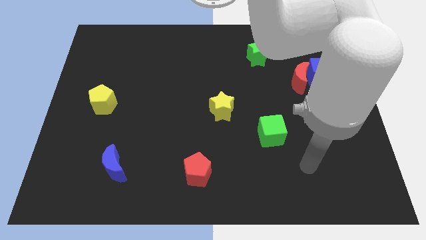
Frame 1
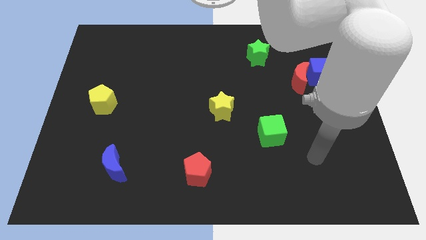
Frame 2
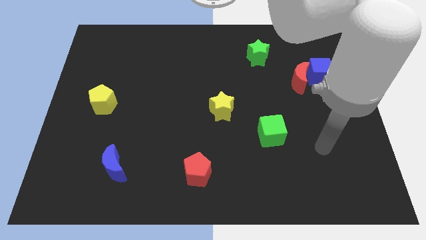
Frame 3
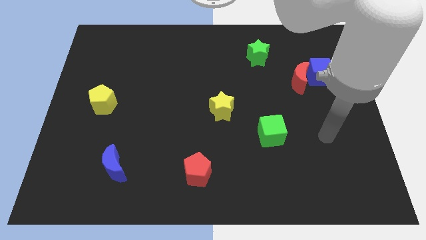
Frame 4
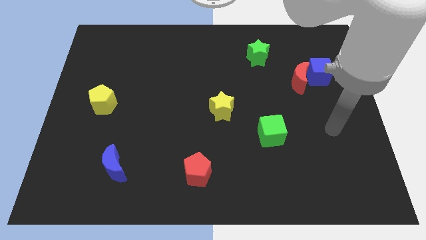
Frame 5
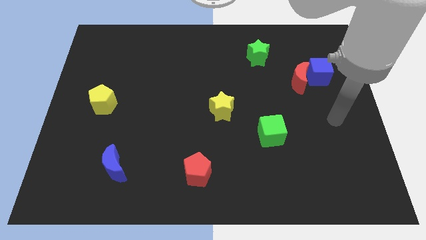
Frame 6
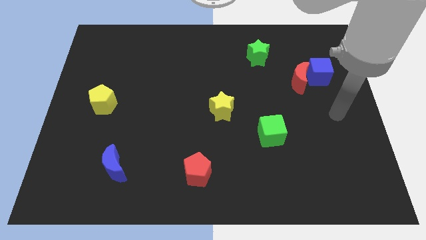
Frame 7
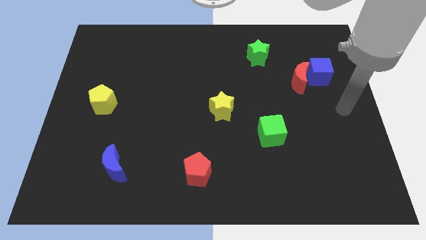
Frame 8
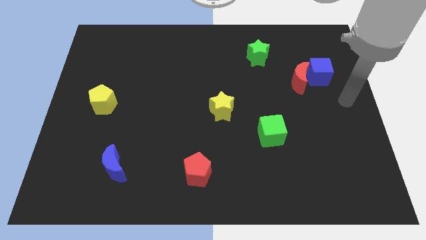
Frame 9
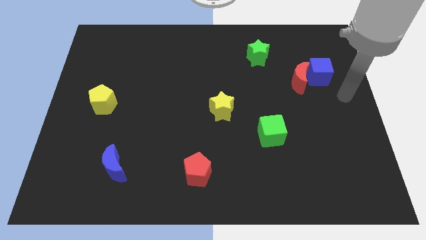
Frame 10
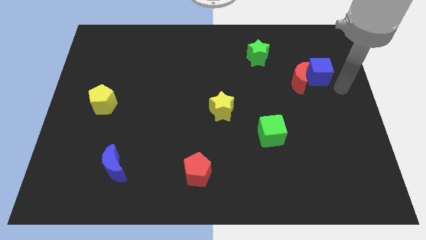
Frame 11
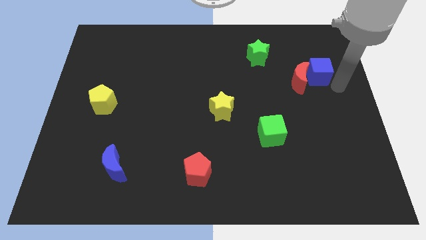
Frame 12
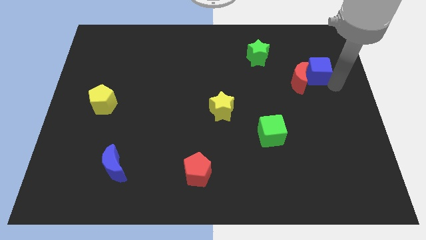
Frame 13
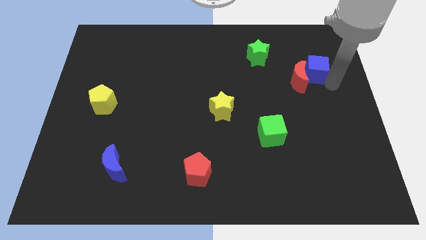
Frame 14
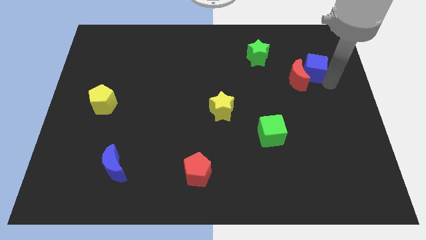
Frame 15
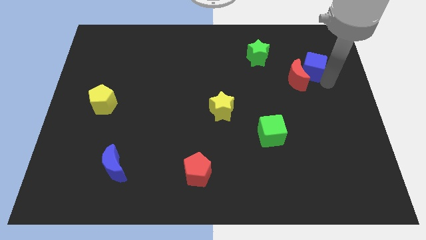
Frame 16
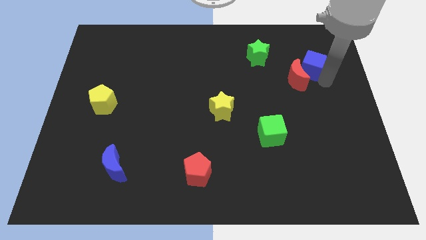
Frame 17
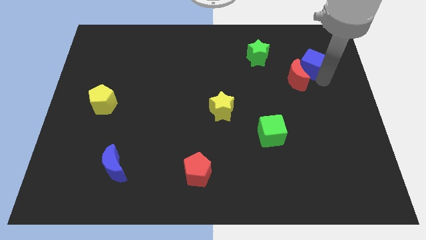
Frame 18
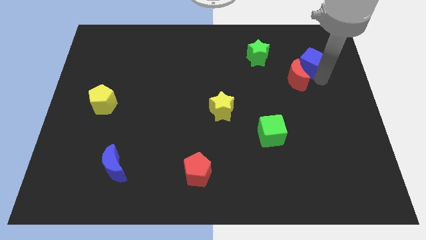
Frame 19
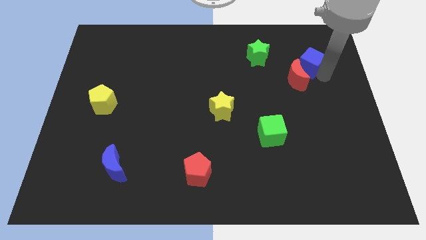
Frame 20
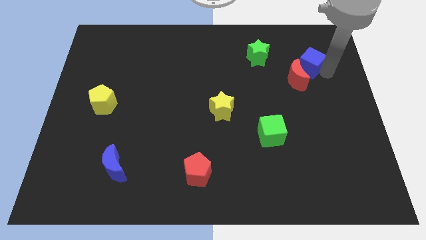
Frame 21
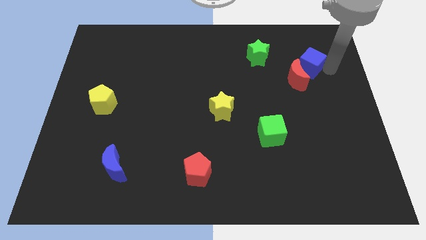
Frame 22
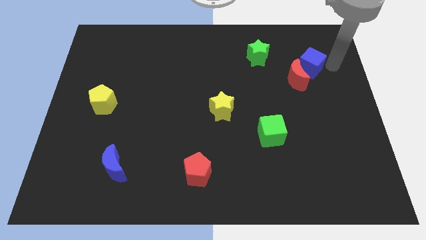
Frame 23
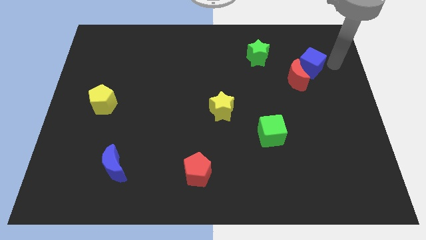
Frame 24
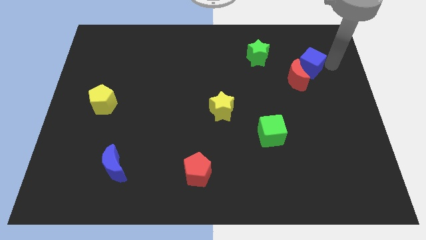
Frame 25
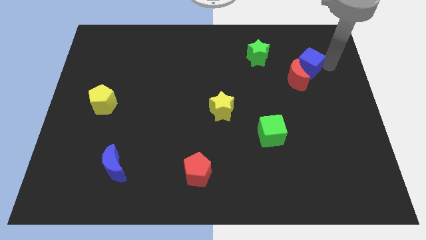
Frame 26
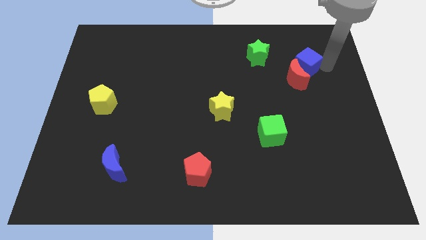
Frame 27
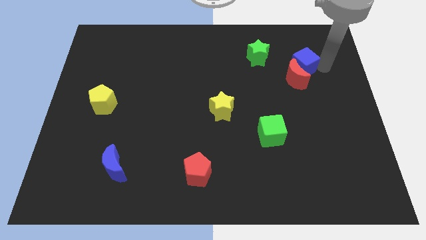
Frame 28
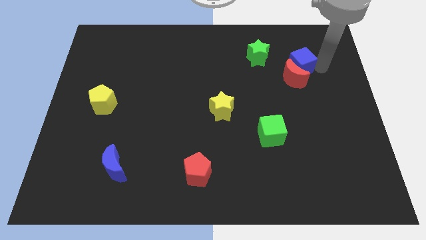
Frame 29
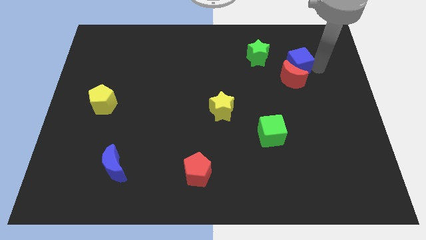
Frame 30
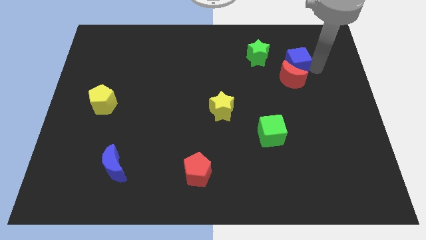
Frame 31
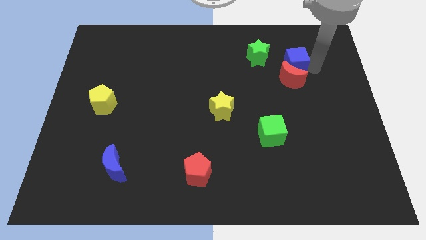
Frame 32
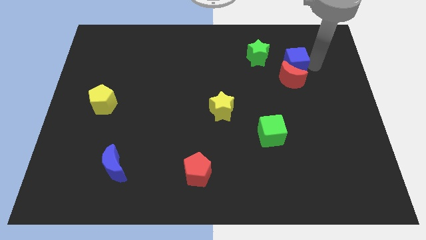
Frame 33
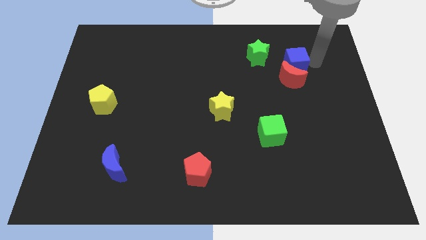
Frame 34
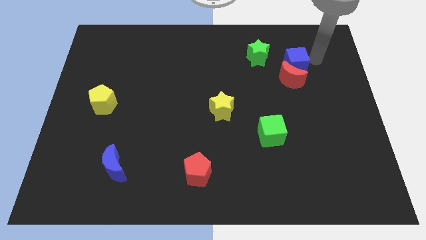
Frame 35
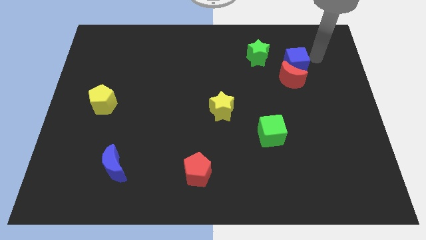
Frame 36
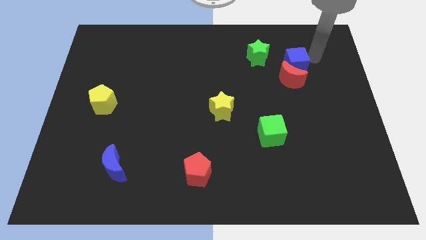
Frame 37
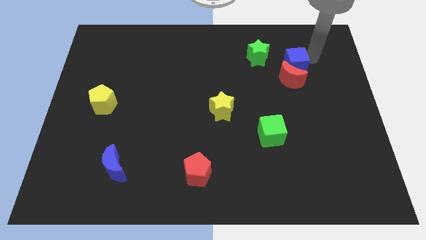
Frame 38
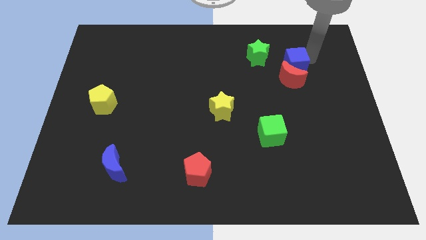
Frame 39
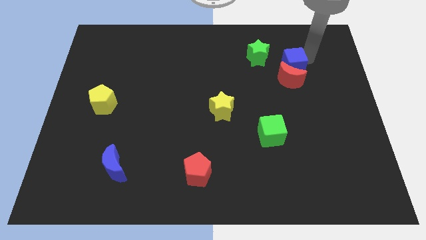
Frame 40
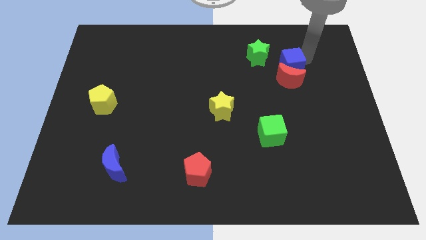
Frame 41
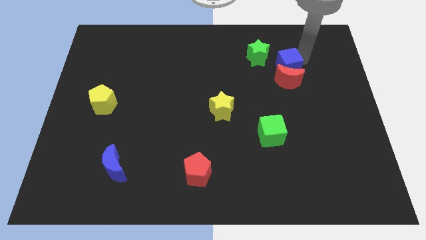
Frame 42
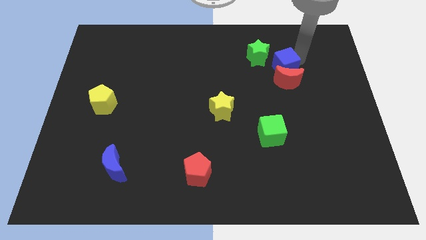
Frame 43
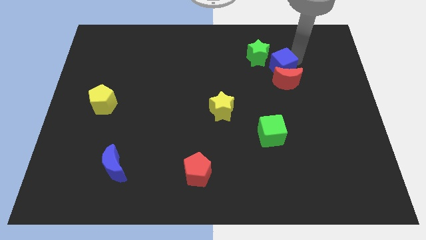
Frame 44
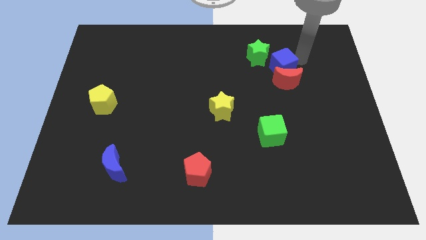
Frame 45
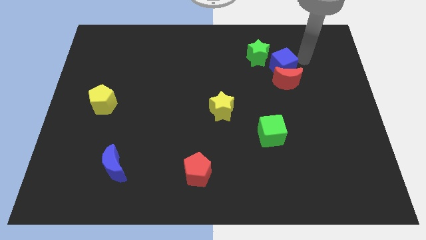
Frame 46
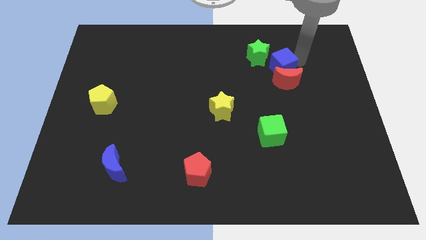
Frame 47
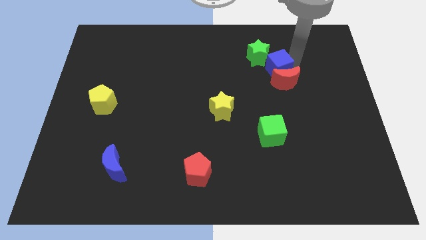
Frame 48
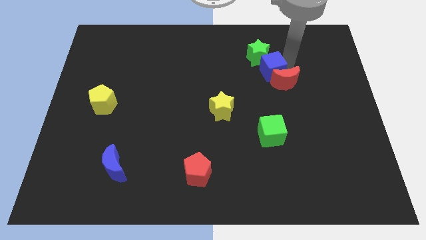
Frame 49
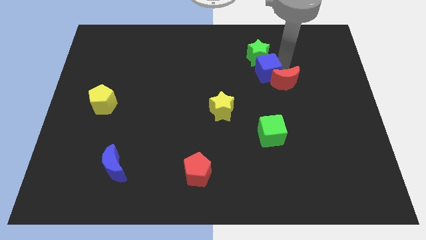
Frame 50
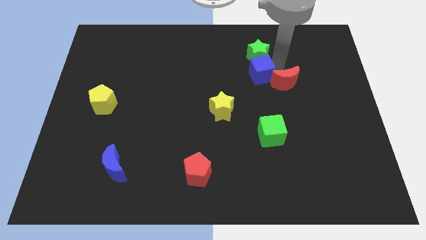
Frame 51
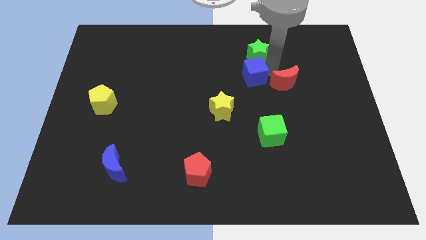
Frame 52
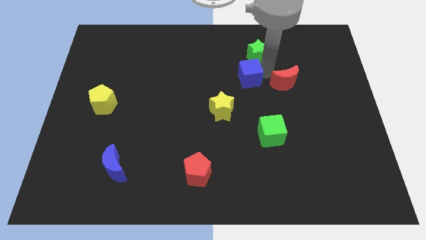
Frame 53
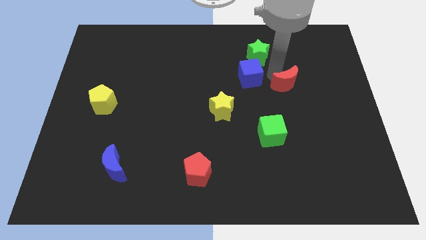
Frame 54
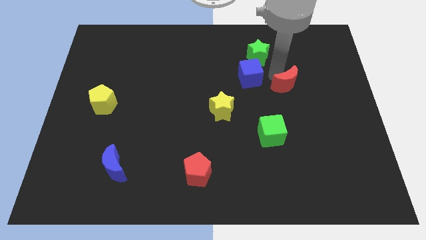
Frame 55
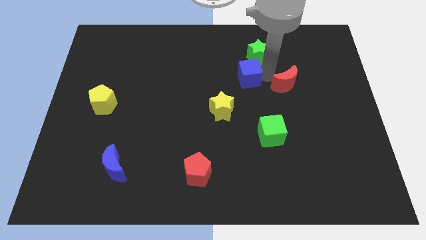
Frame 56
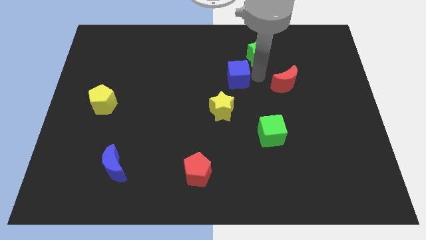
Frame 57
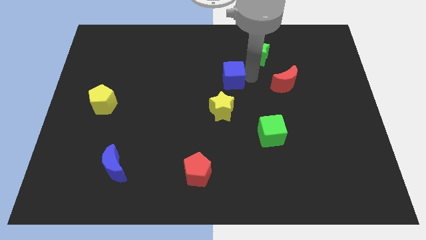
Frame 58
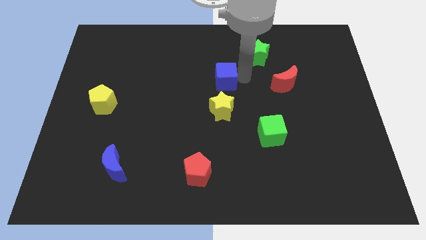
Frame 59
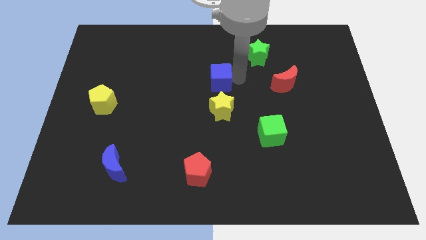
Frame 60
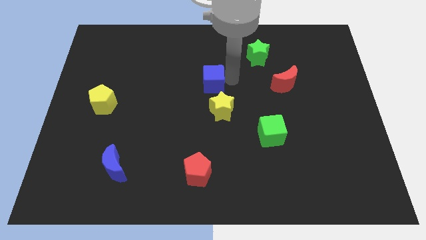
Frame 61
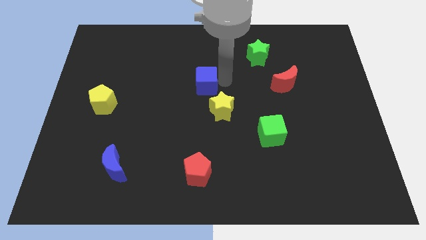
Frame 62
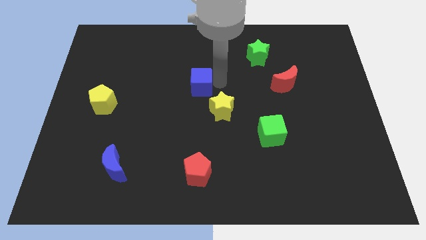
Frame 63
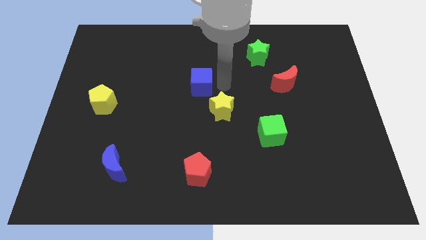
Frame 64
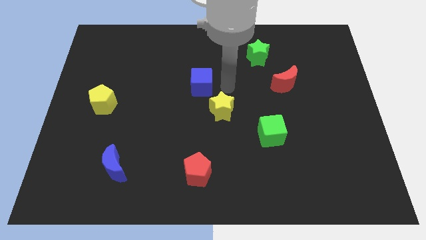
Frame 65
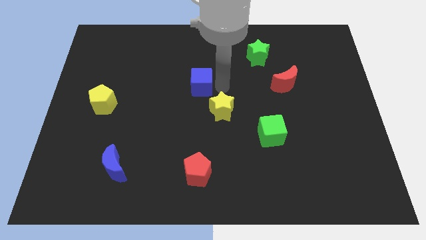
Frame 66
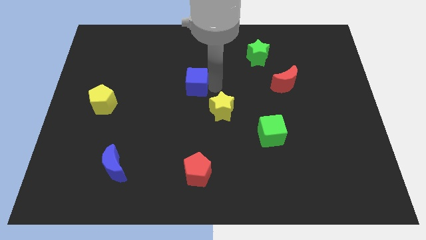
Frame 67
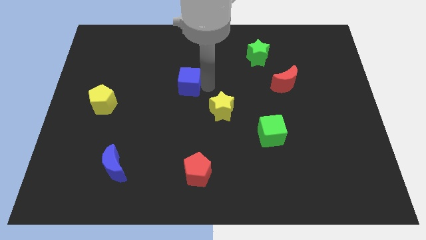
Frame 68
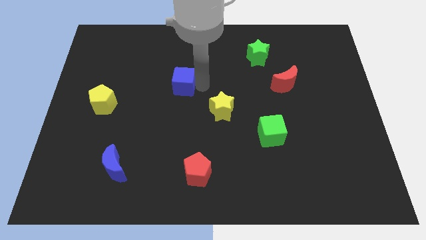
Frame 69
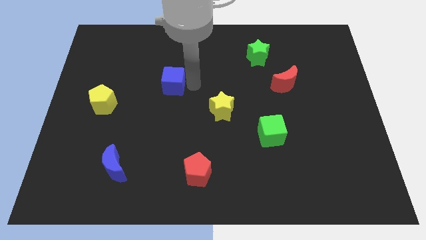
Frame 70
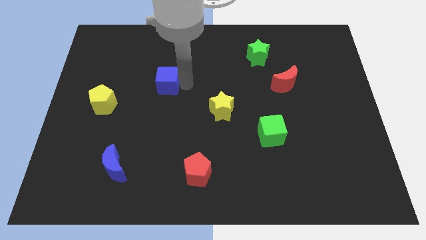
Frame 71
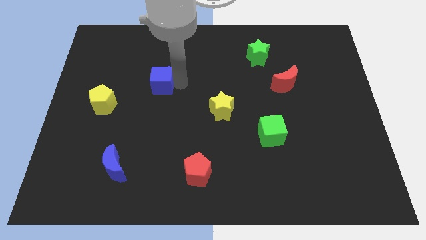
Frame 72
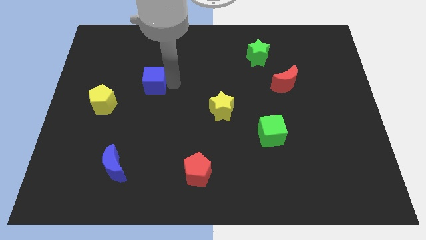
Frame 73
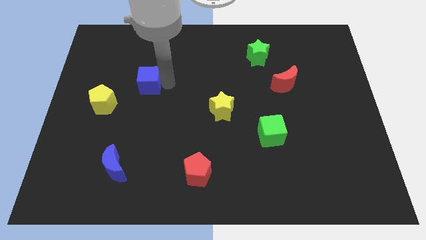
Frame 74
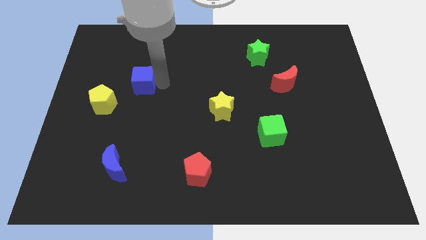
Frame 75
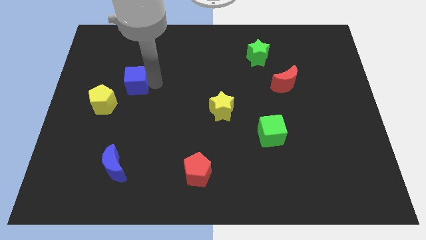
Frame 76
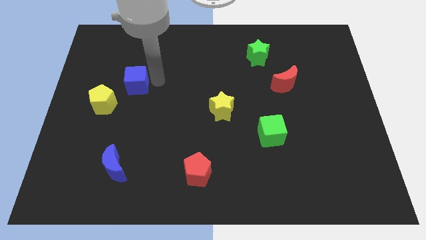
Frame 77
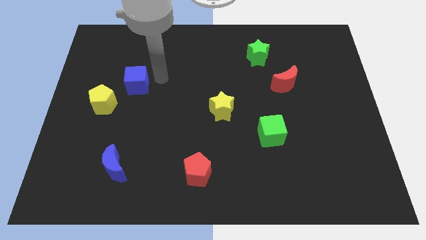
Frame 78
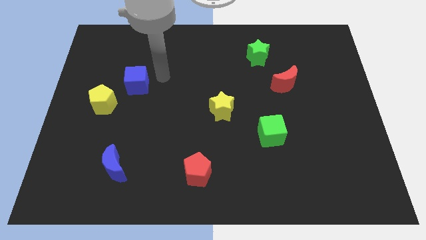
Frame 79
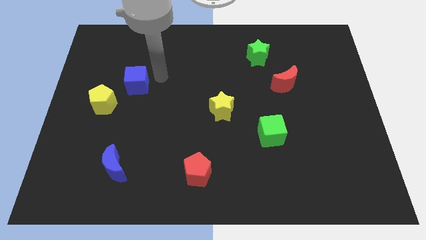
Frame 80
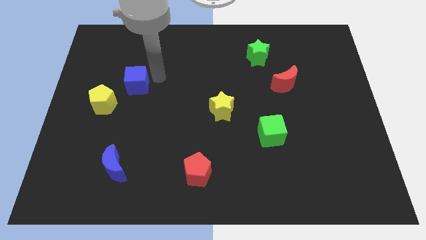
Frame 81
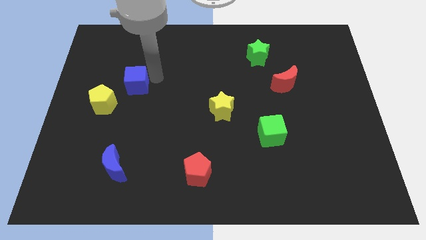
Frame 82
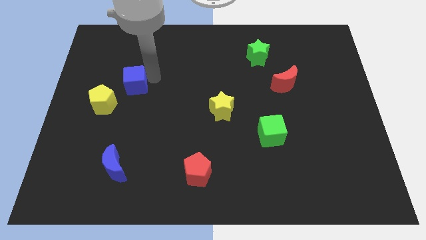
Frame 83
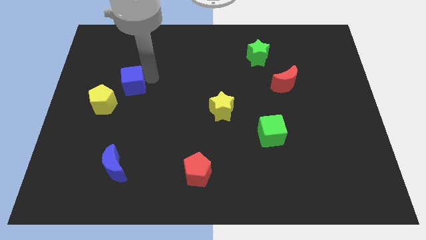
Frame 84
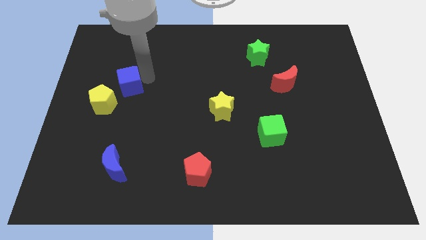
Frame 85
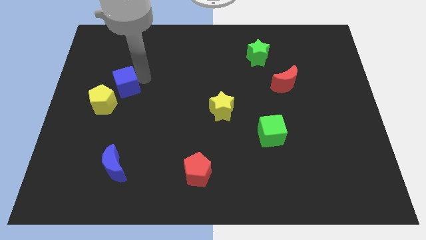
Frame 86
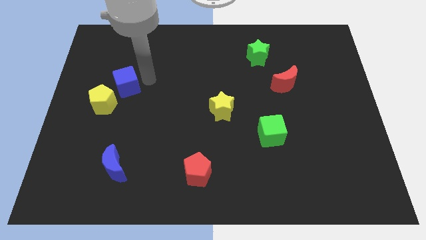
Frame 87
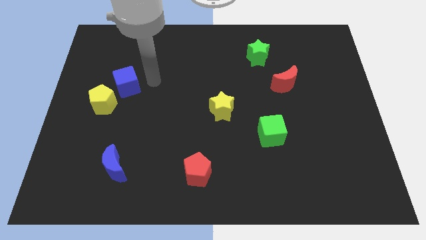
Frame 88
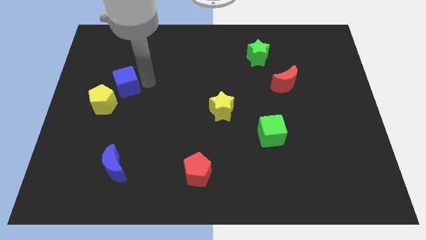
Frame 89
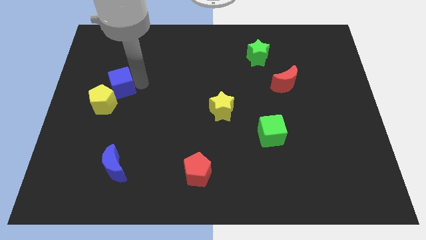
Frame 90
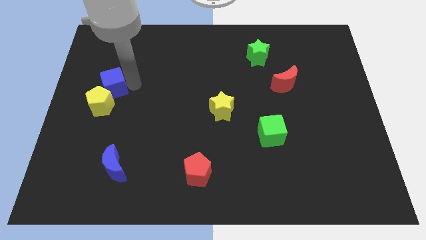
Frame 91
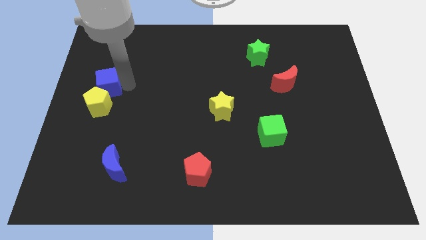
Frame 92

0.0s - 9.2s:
slide the blue cube to the center left
